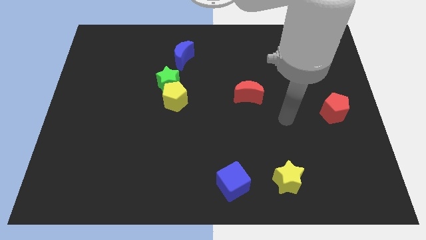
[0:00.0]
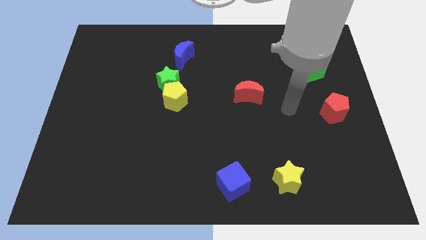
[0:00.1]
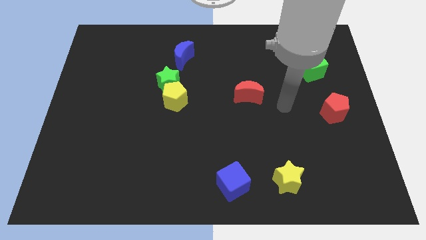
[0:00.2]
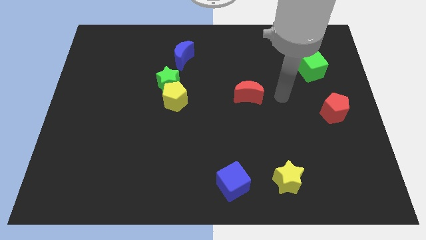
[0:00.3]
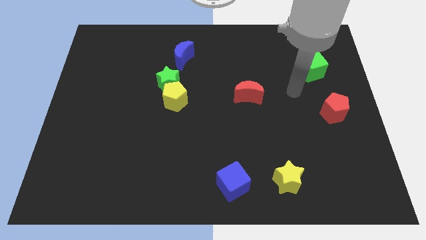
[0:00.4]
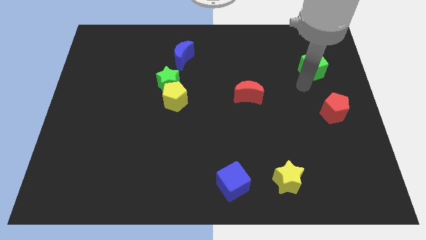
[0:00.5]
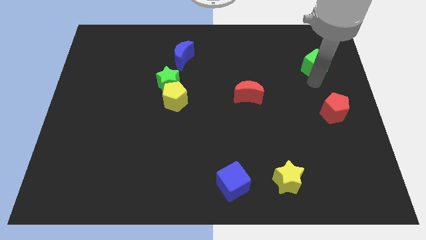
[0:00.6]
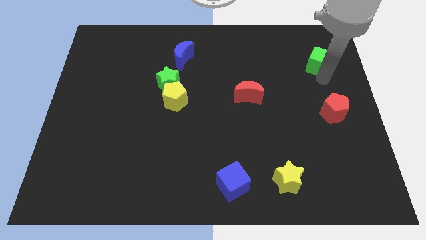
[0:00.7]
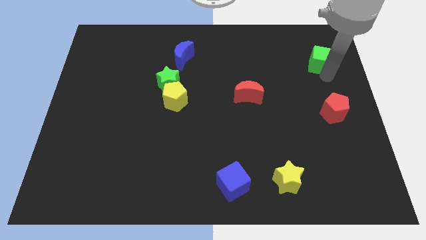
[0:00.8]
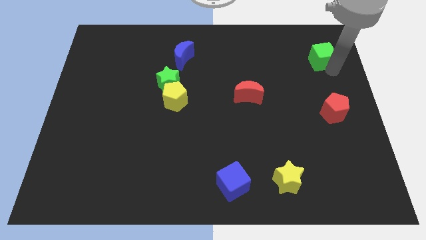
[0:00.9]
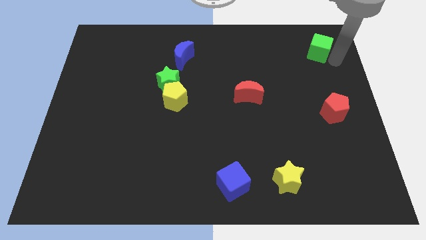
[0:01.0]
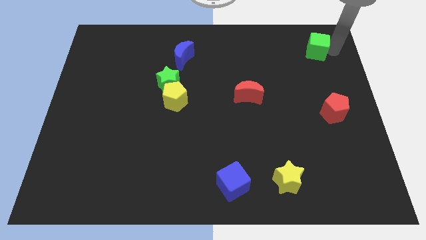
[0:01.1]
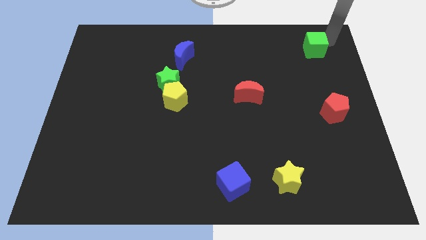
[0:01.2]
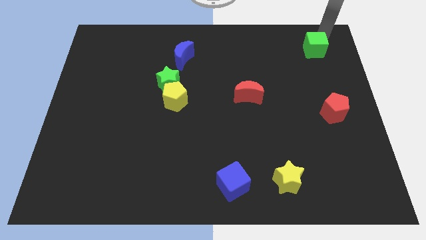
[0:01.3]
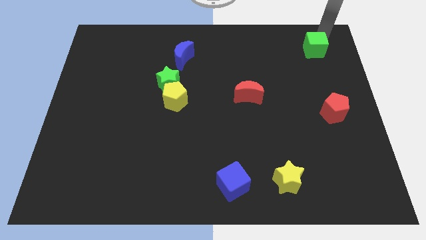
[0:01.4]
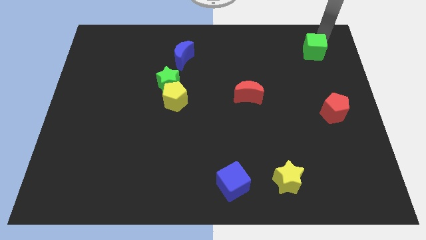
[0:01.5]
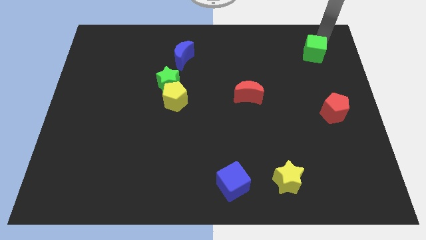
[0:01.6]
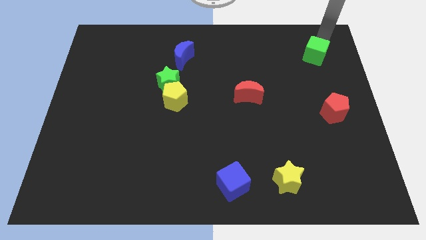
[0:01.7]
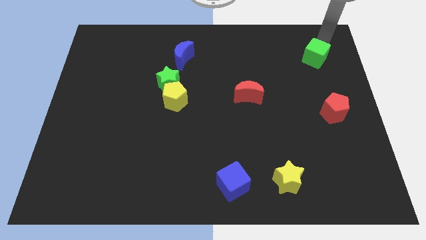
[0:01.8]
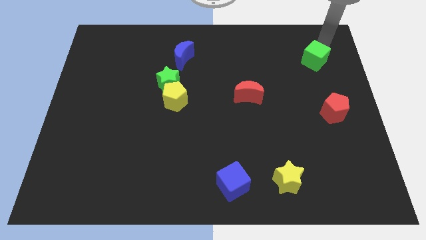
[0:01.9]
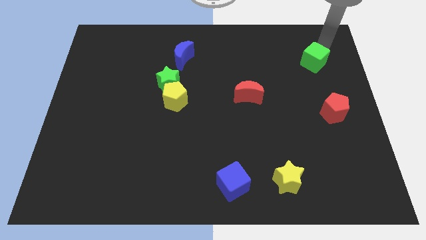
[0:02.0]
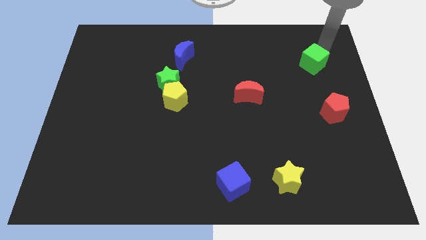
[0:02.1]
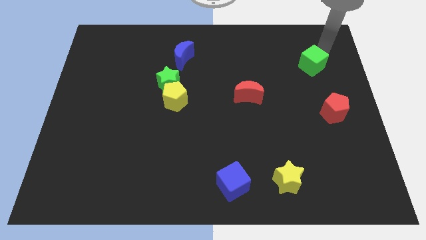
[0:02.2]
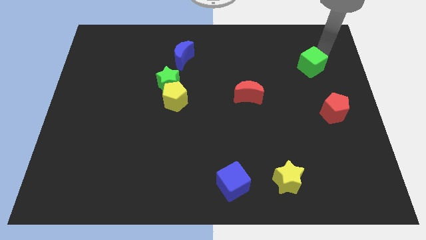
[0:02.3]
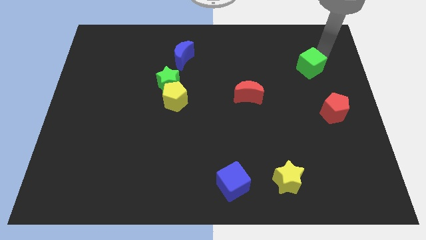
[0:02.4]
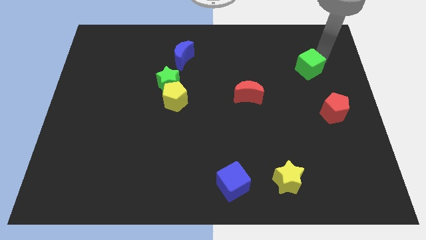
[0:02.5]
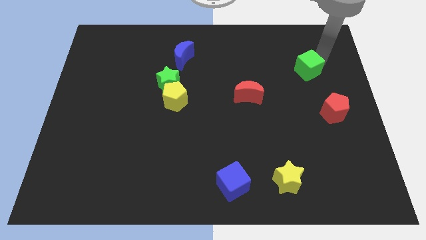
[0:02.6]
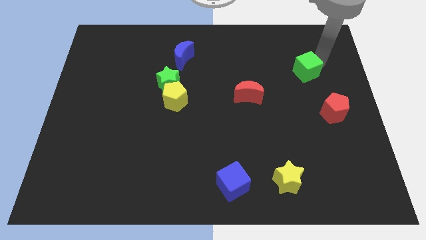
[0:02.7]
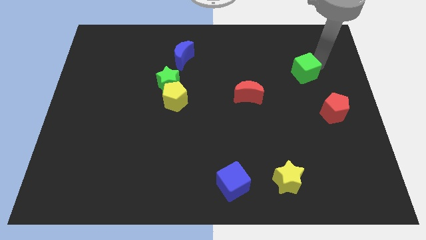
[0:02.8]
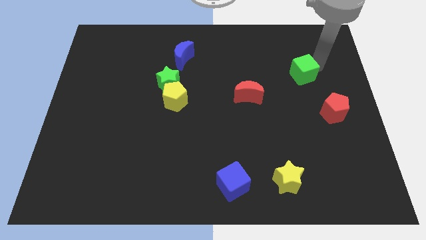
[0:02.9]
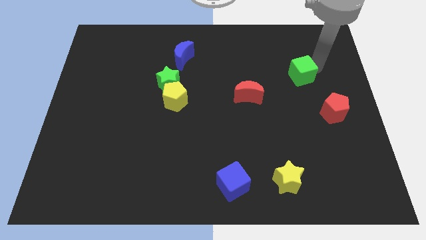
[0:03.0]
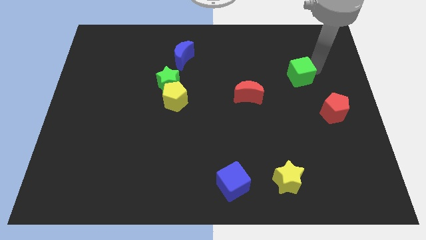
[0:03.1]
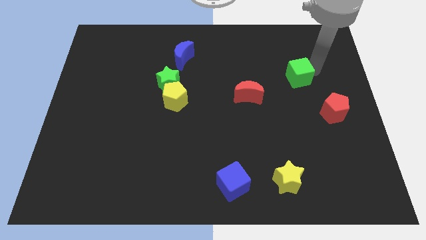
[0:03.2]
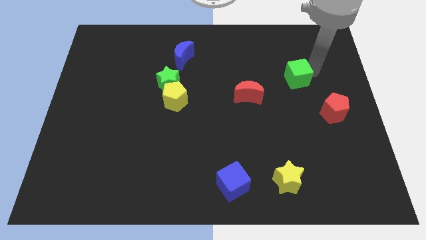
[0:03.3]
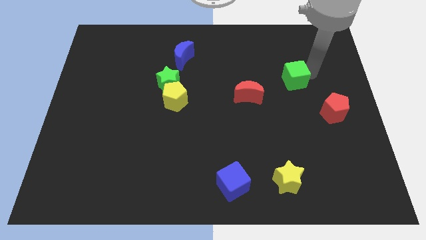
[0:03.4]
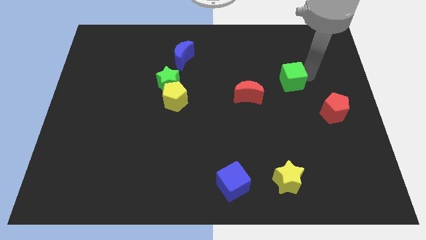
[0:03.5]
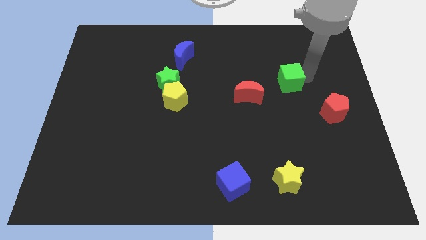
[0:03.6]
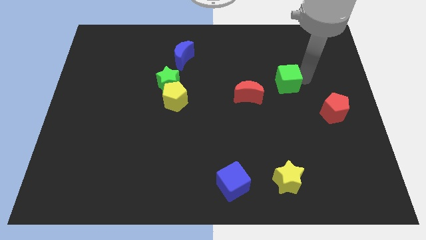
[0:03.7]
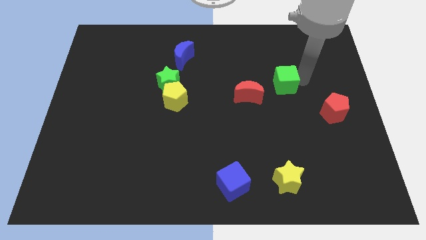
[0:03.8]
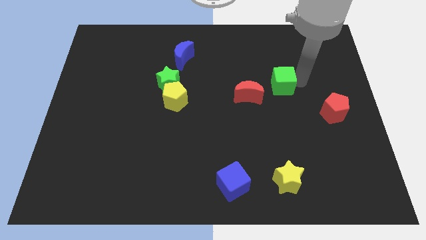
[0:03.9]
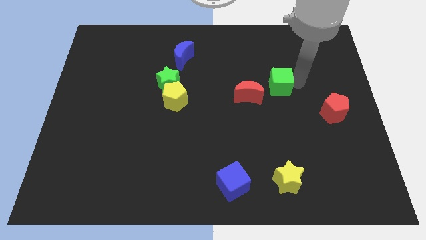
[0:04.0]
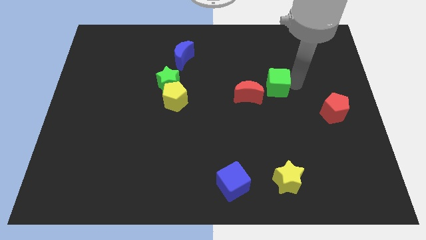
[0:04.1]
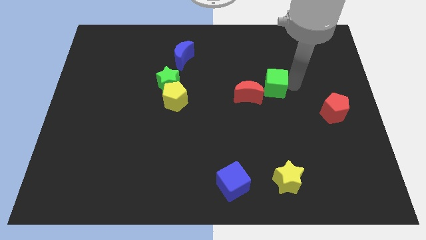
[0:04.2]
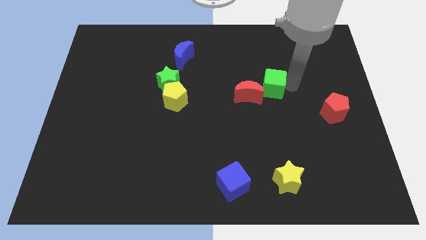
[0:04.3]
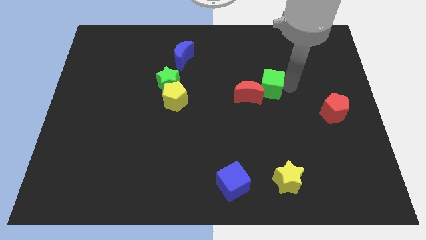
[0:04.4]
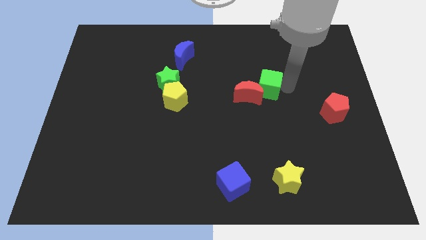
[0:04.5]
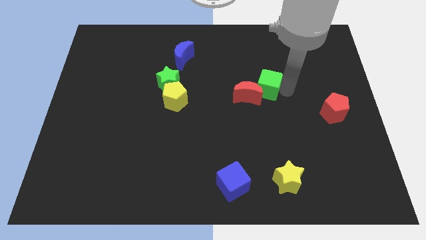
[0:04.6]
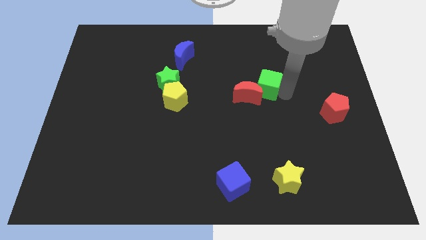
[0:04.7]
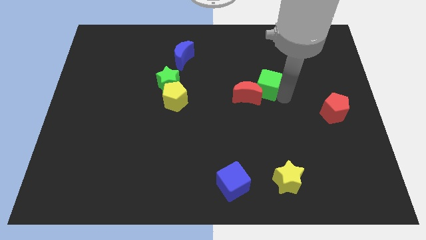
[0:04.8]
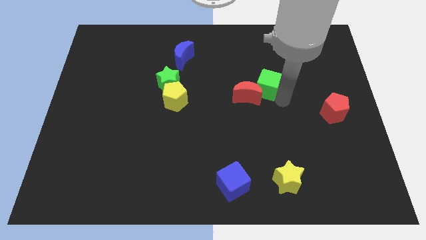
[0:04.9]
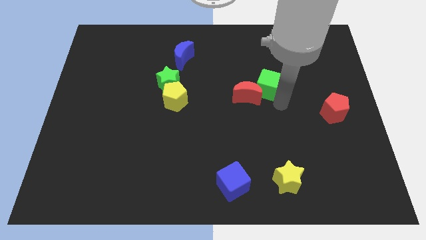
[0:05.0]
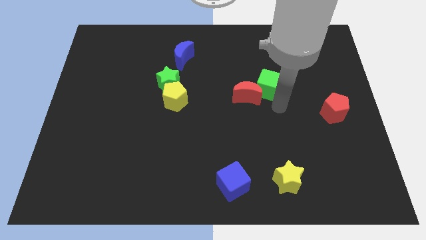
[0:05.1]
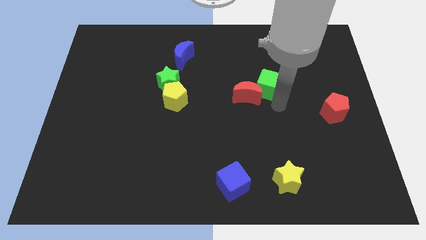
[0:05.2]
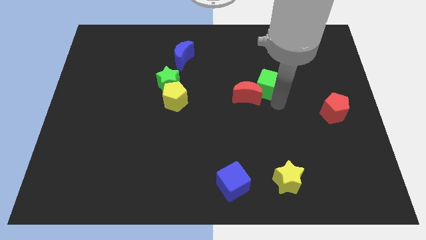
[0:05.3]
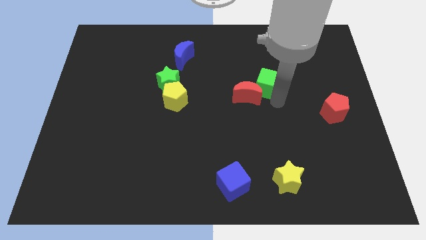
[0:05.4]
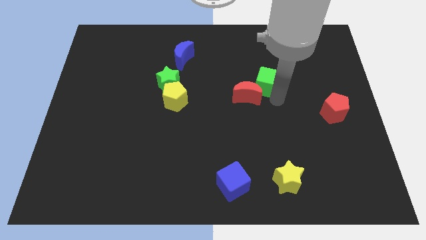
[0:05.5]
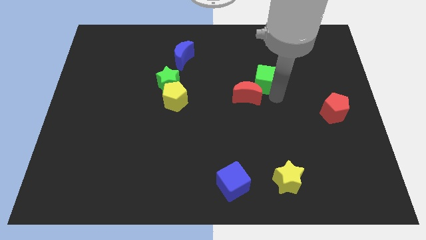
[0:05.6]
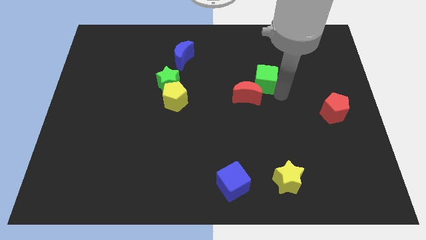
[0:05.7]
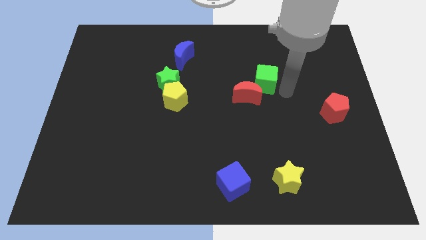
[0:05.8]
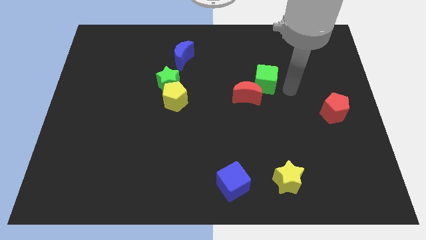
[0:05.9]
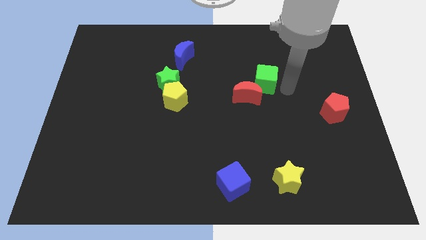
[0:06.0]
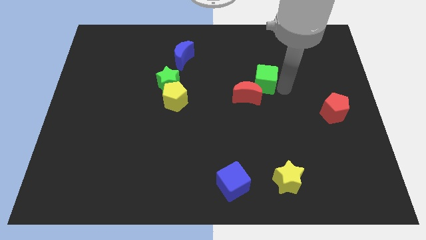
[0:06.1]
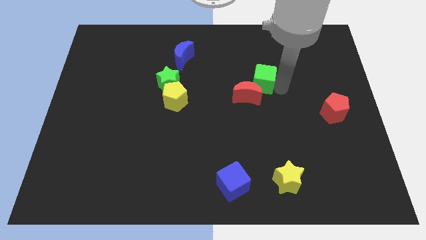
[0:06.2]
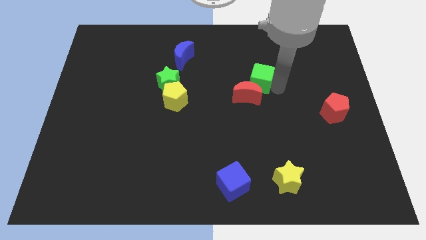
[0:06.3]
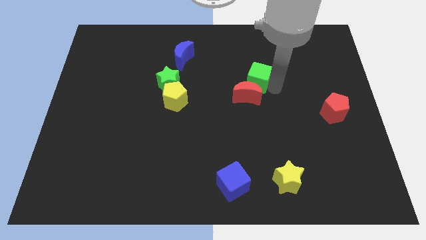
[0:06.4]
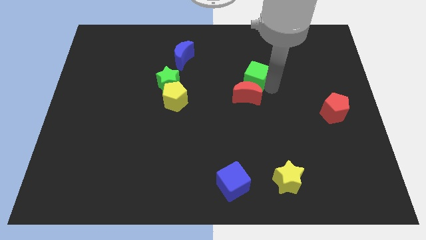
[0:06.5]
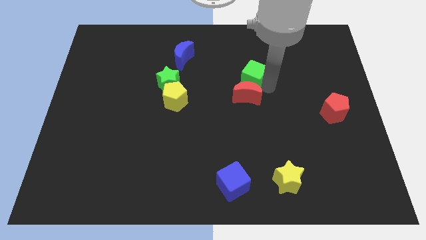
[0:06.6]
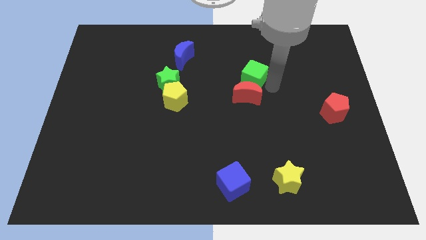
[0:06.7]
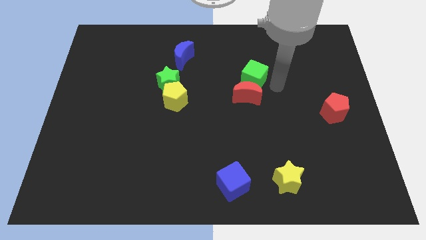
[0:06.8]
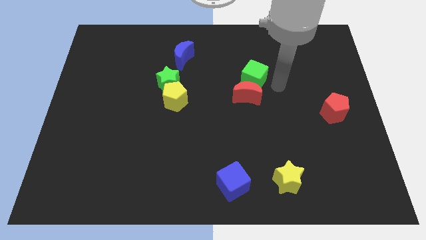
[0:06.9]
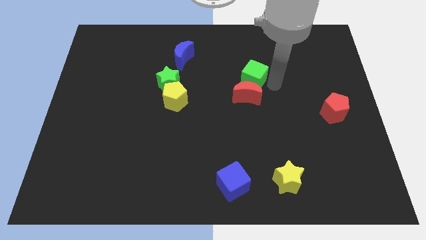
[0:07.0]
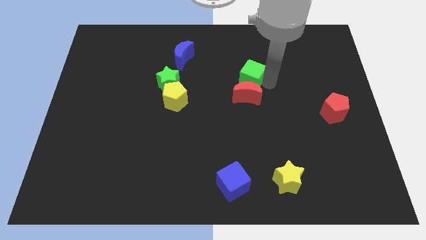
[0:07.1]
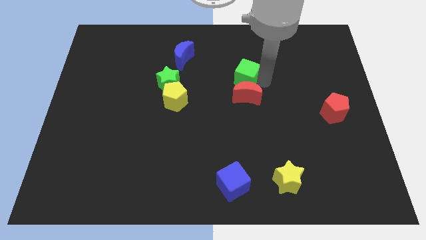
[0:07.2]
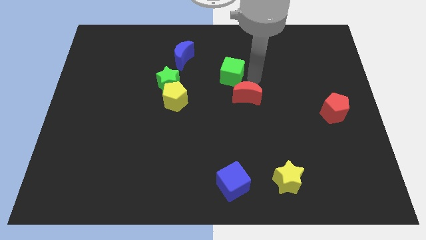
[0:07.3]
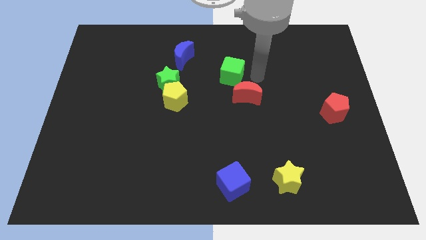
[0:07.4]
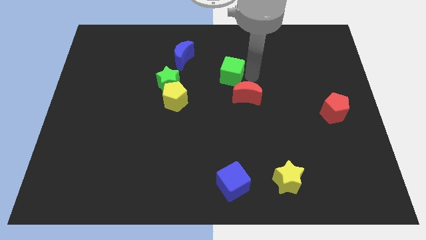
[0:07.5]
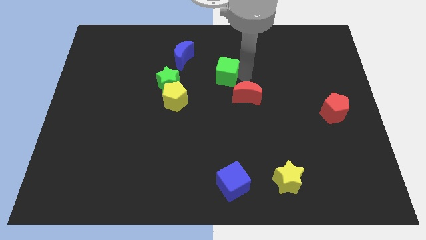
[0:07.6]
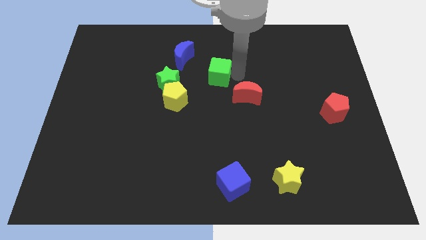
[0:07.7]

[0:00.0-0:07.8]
slide the green cube to the bottom right of the blue moon
